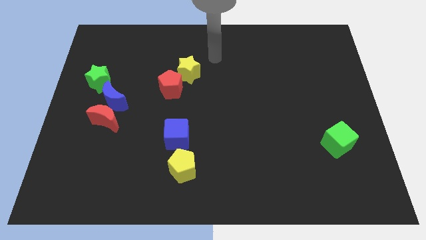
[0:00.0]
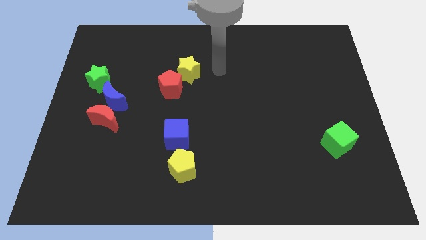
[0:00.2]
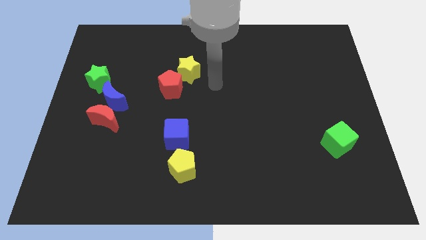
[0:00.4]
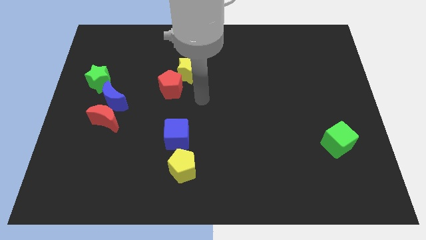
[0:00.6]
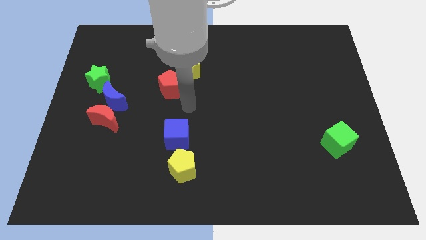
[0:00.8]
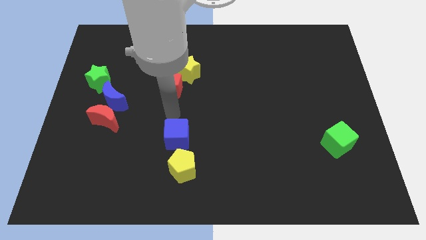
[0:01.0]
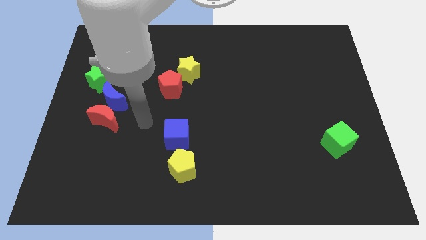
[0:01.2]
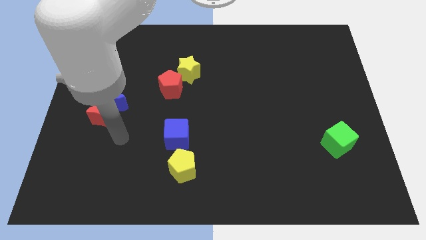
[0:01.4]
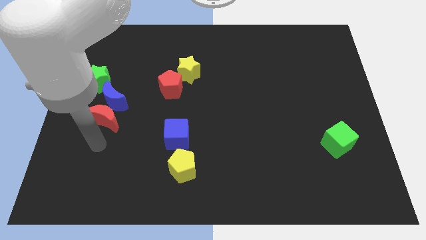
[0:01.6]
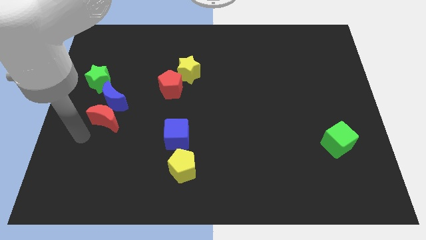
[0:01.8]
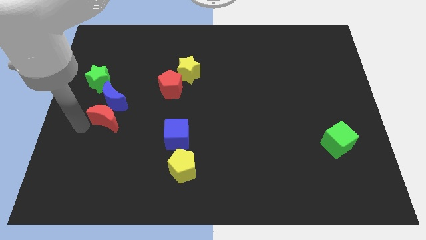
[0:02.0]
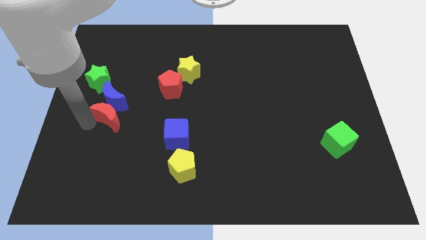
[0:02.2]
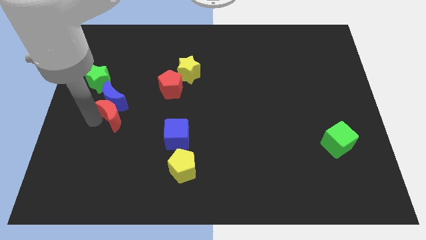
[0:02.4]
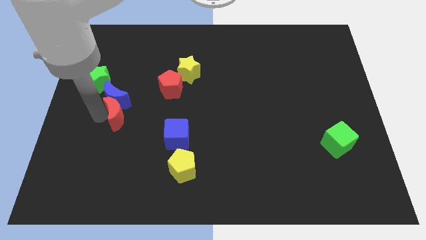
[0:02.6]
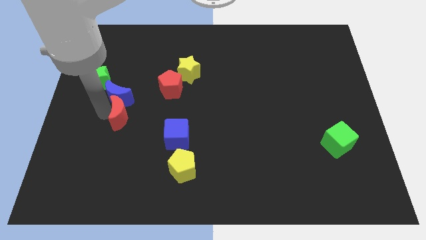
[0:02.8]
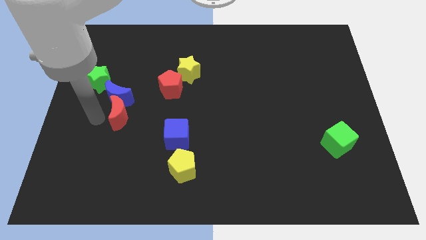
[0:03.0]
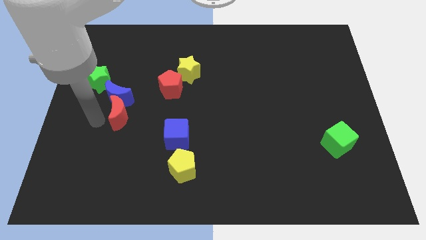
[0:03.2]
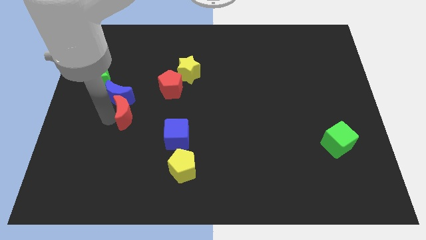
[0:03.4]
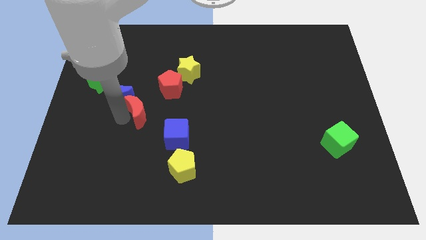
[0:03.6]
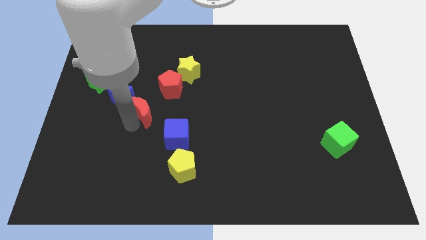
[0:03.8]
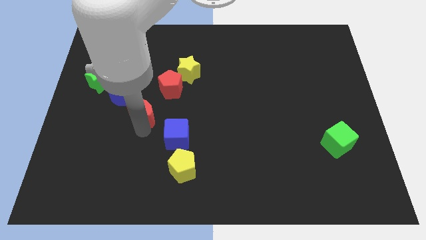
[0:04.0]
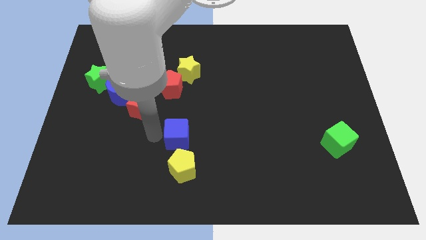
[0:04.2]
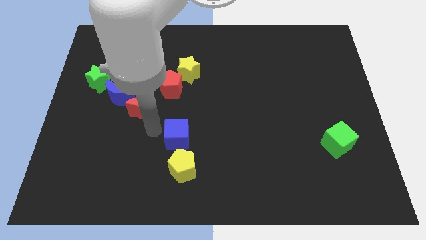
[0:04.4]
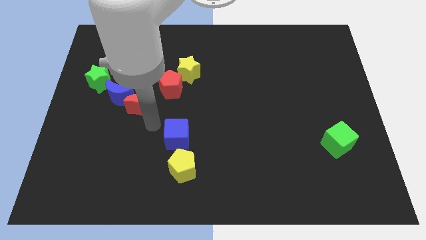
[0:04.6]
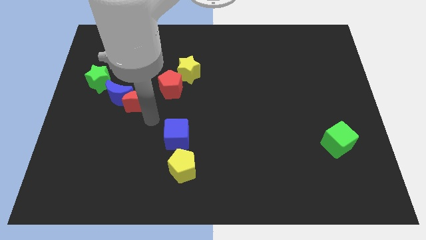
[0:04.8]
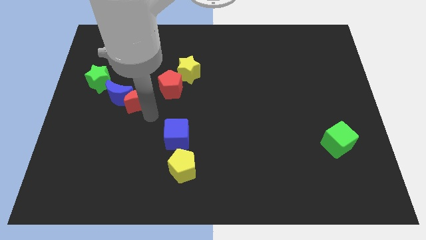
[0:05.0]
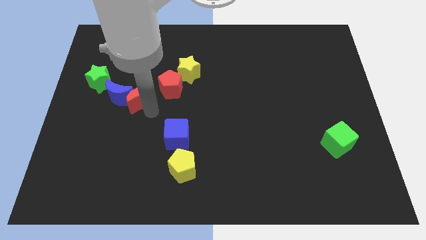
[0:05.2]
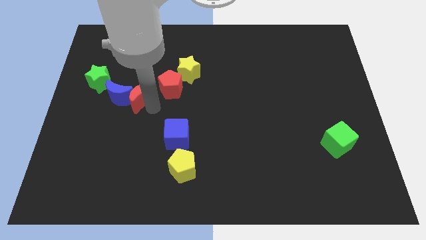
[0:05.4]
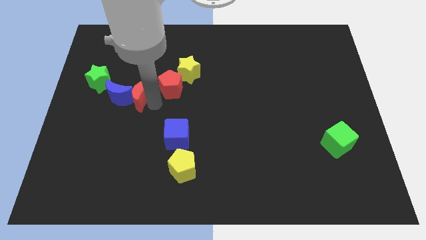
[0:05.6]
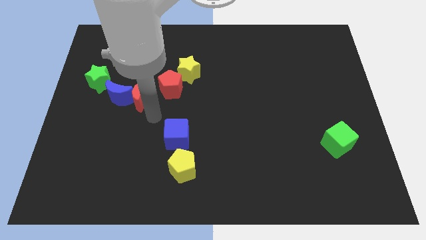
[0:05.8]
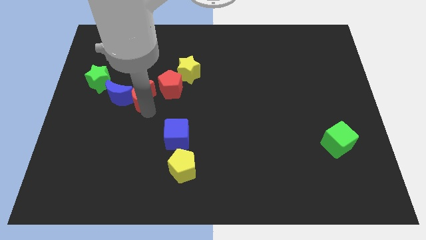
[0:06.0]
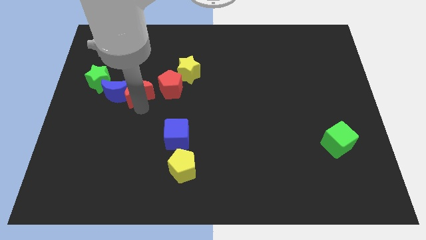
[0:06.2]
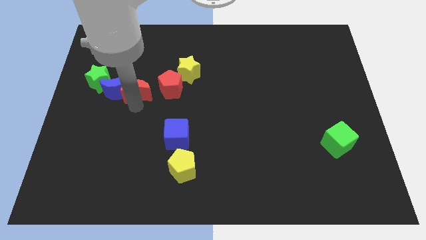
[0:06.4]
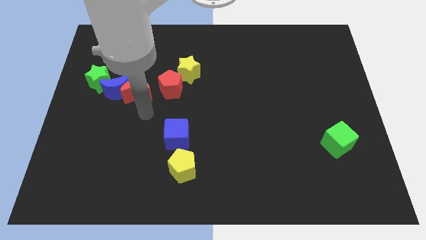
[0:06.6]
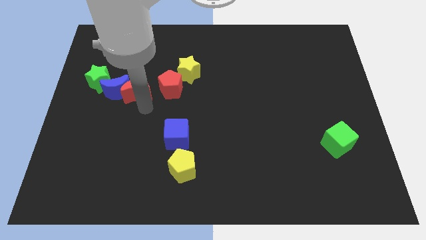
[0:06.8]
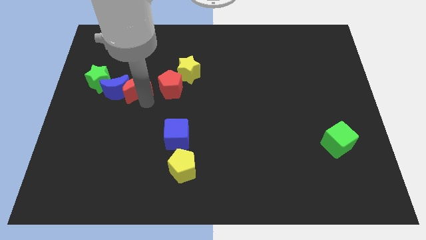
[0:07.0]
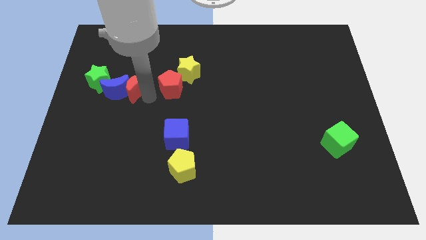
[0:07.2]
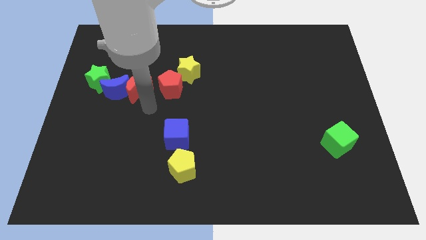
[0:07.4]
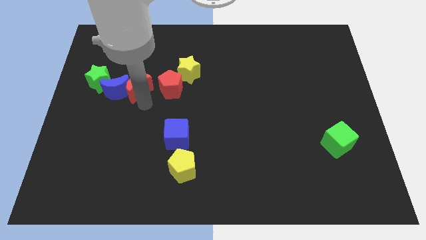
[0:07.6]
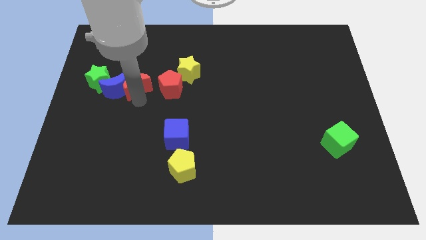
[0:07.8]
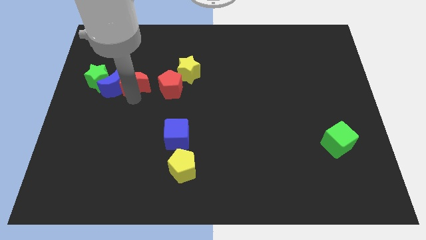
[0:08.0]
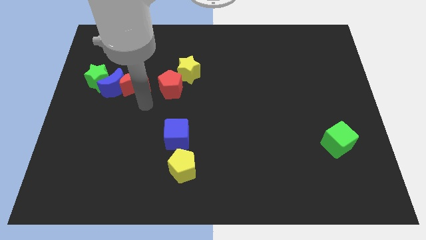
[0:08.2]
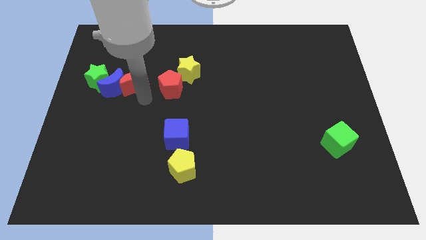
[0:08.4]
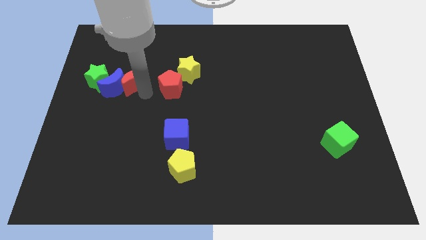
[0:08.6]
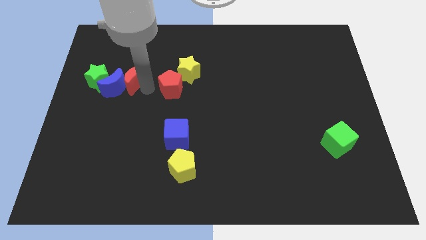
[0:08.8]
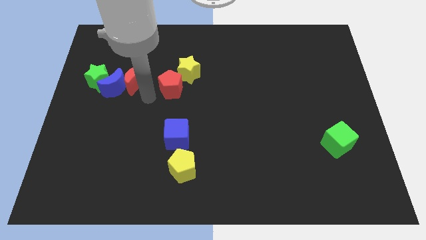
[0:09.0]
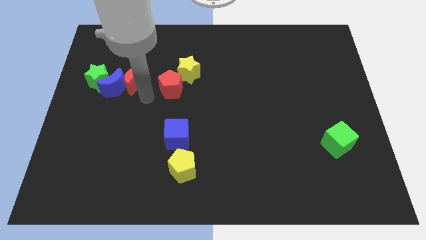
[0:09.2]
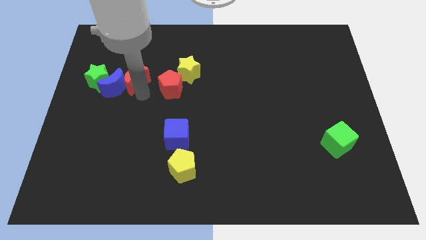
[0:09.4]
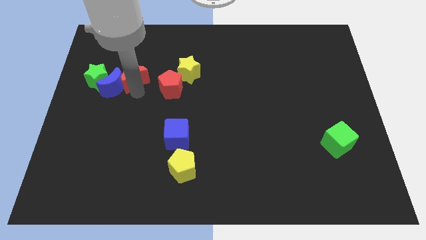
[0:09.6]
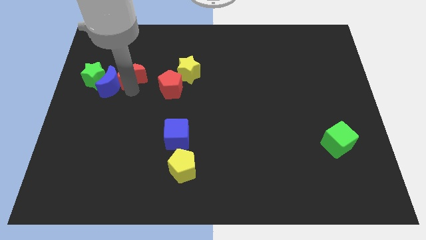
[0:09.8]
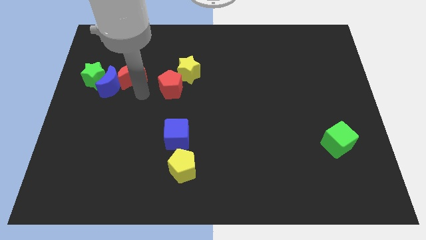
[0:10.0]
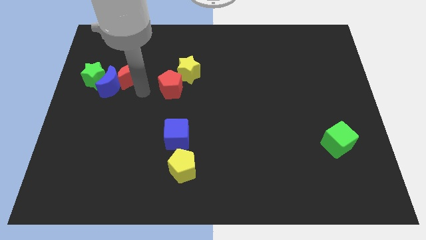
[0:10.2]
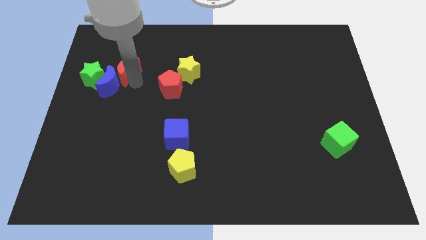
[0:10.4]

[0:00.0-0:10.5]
push the red moon to the top right of the green star

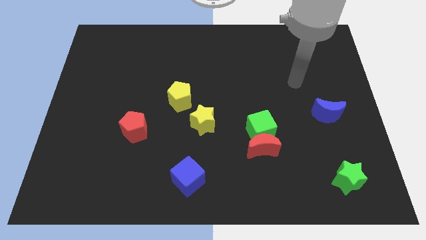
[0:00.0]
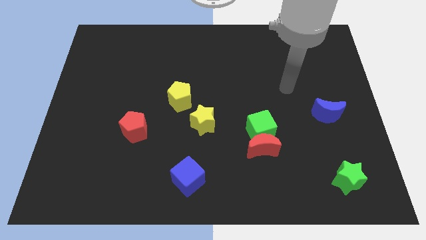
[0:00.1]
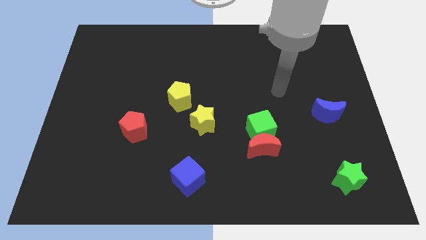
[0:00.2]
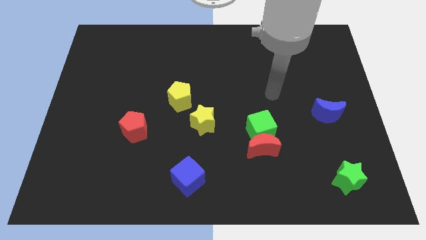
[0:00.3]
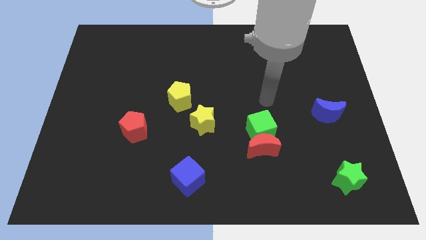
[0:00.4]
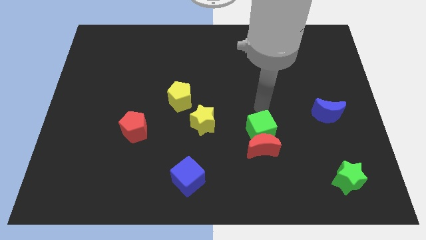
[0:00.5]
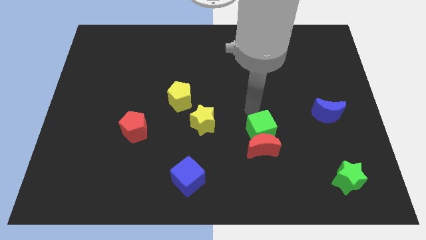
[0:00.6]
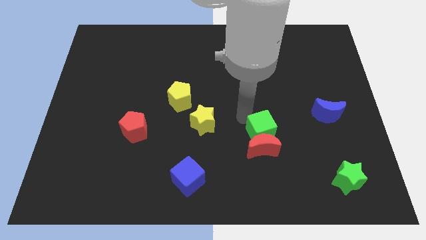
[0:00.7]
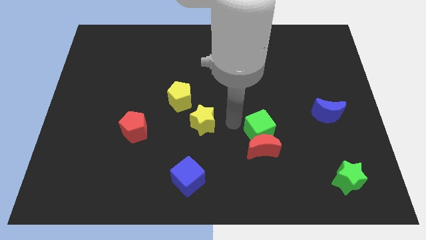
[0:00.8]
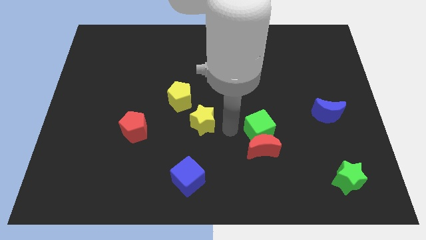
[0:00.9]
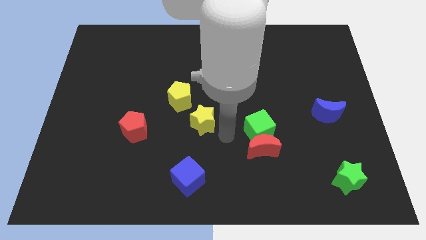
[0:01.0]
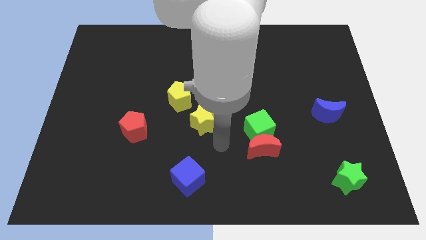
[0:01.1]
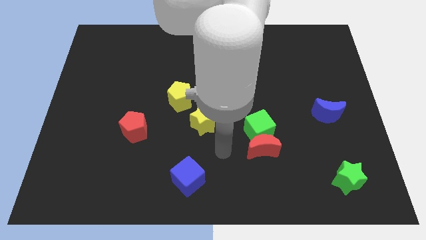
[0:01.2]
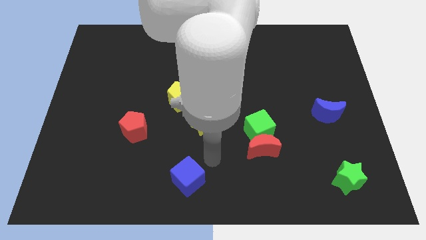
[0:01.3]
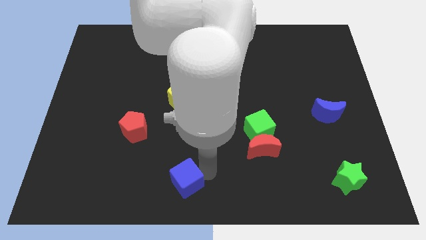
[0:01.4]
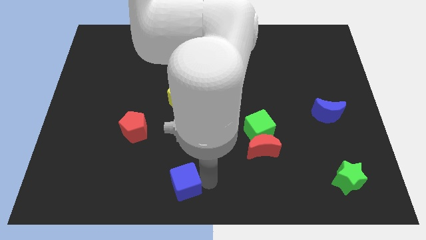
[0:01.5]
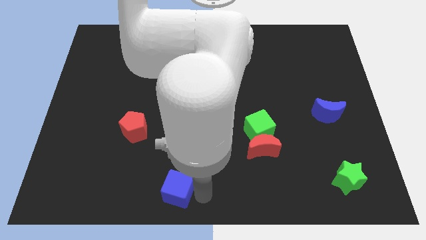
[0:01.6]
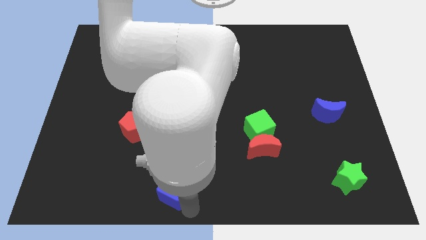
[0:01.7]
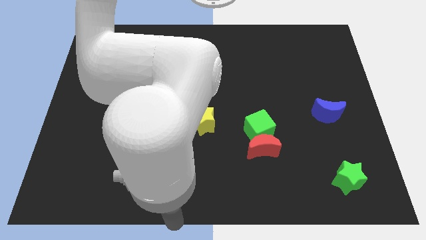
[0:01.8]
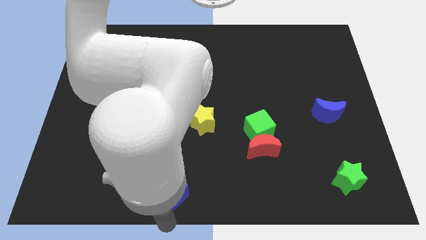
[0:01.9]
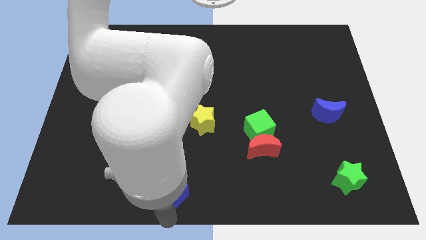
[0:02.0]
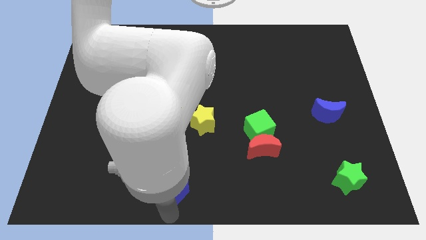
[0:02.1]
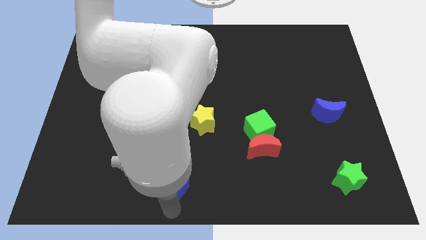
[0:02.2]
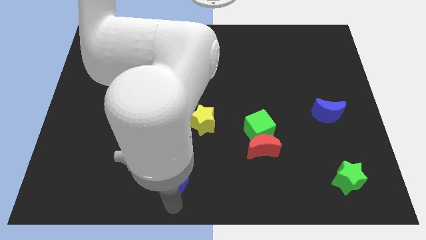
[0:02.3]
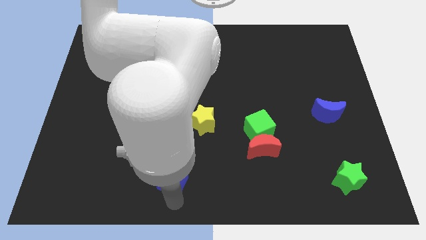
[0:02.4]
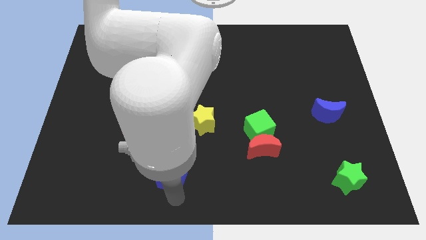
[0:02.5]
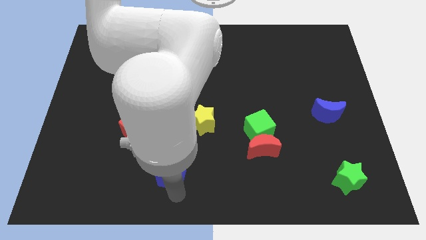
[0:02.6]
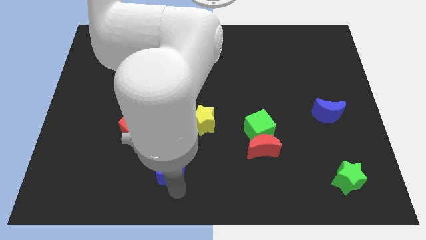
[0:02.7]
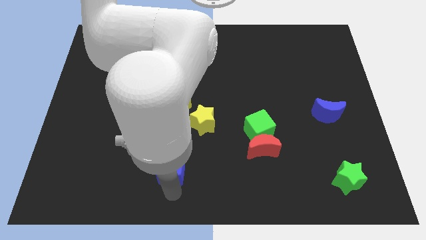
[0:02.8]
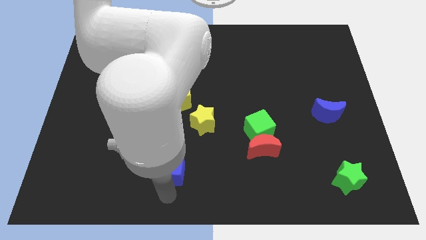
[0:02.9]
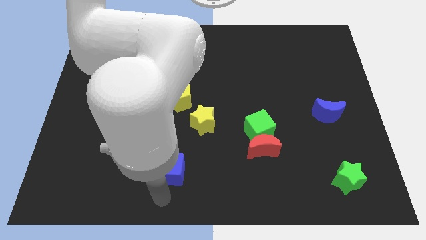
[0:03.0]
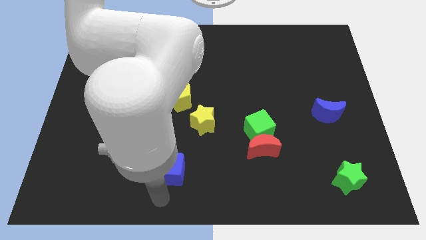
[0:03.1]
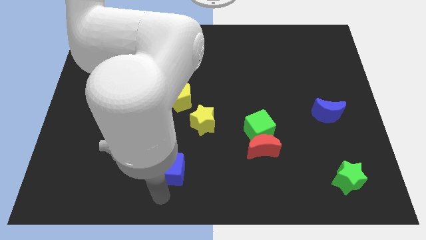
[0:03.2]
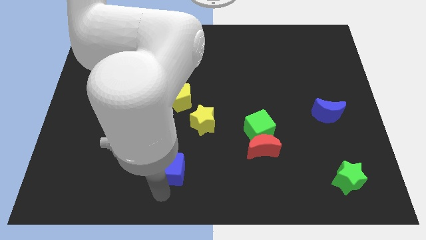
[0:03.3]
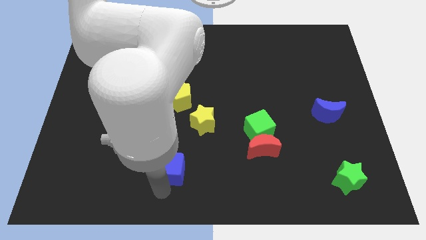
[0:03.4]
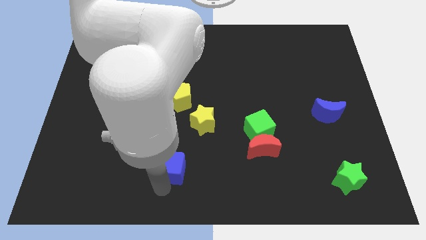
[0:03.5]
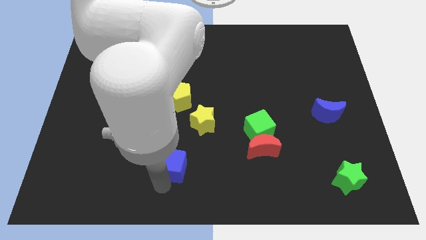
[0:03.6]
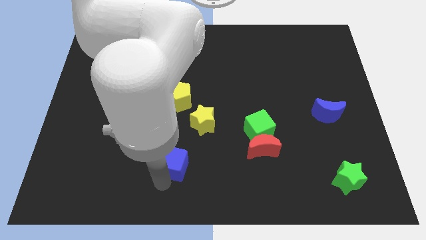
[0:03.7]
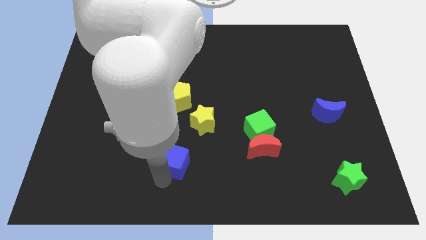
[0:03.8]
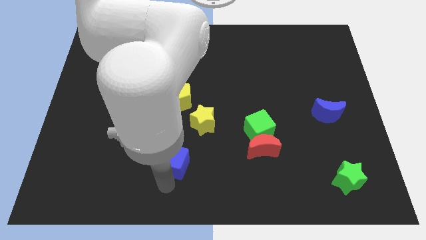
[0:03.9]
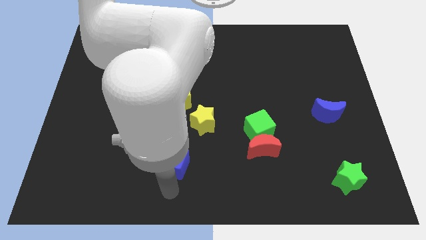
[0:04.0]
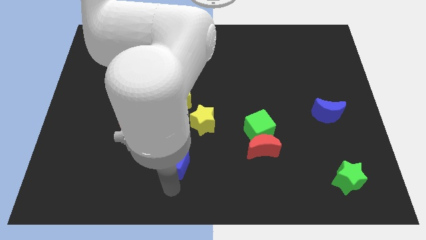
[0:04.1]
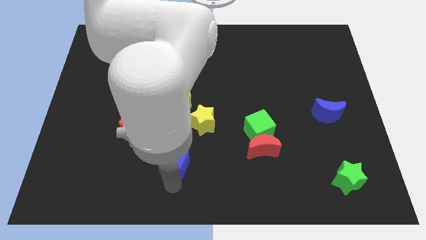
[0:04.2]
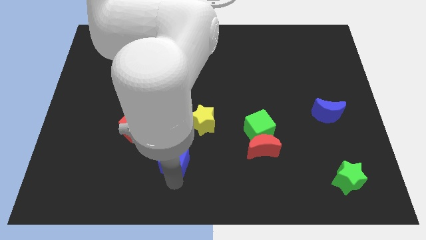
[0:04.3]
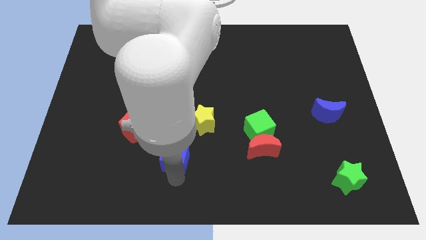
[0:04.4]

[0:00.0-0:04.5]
put the blue cube to the bottom side of the yellow pentagon
